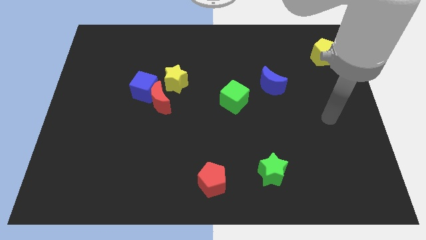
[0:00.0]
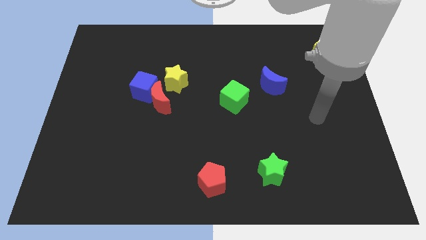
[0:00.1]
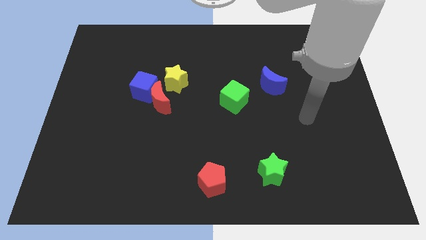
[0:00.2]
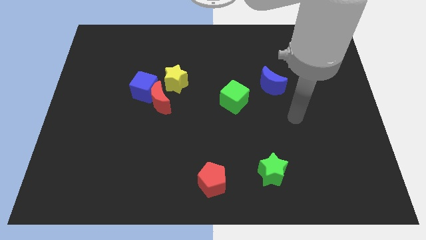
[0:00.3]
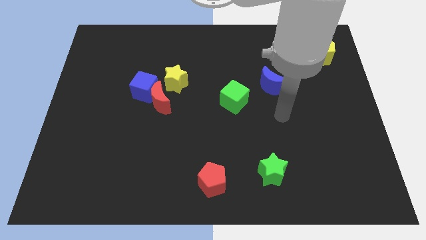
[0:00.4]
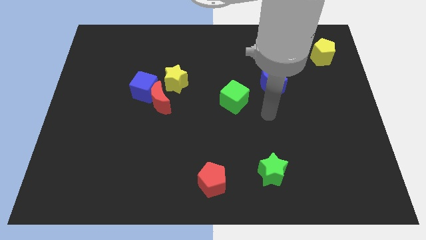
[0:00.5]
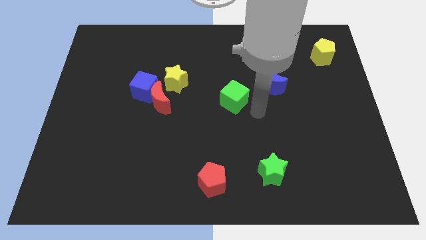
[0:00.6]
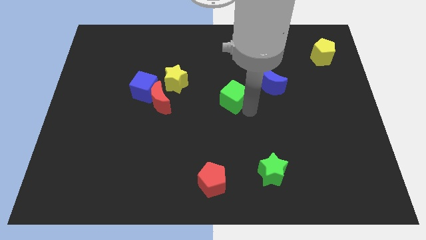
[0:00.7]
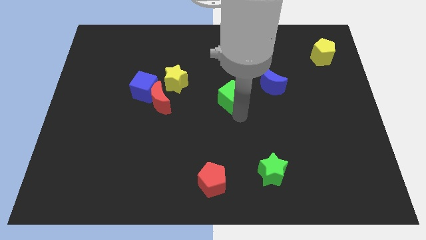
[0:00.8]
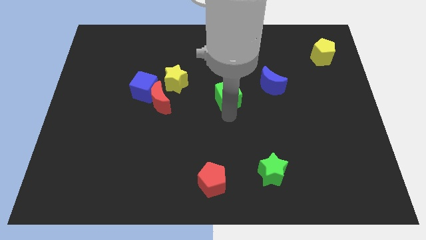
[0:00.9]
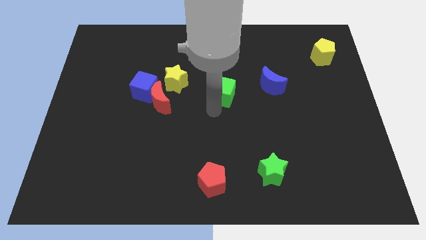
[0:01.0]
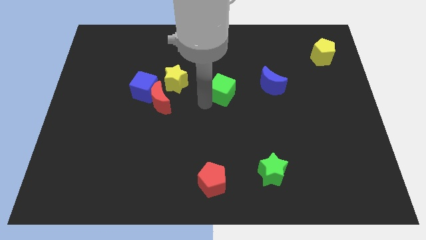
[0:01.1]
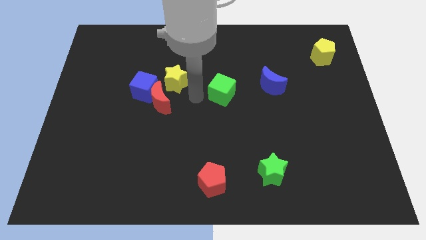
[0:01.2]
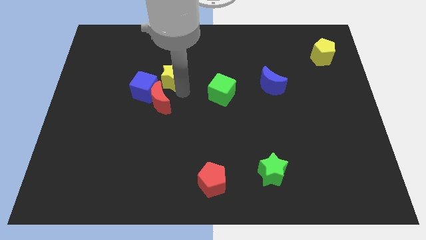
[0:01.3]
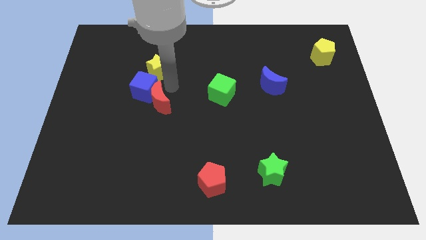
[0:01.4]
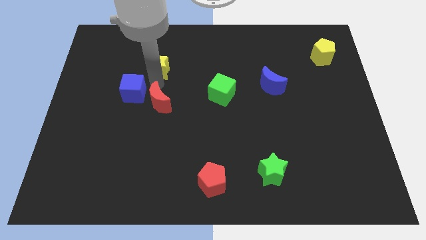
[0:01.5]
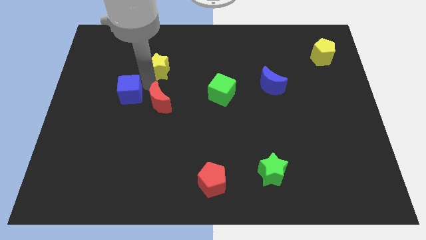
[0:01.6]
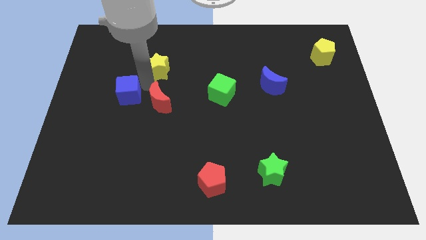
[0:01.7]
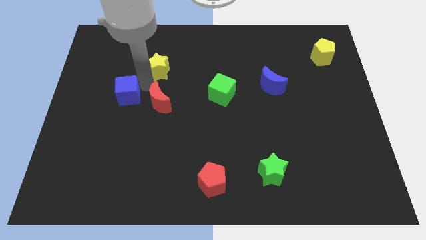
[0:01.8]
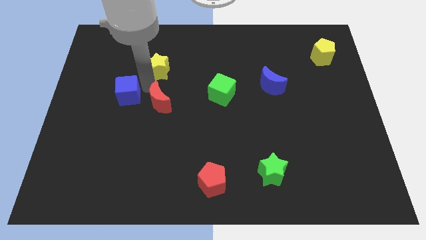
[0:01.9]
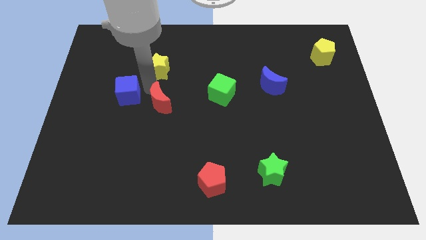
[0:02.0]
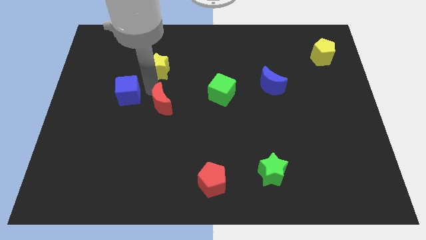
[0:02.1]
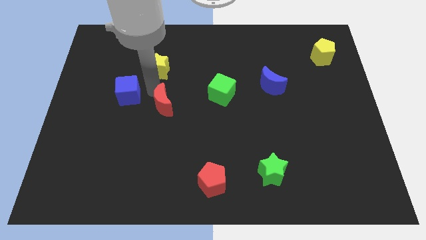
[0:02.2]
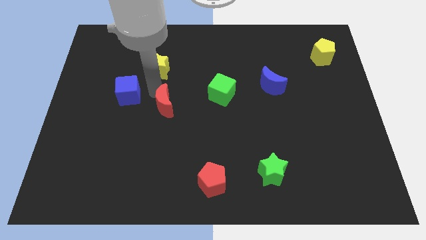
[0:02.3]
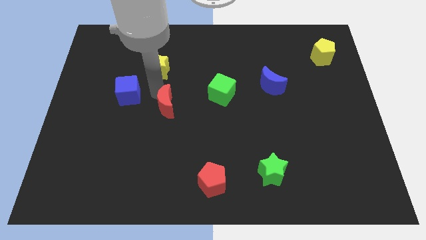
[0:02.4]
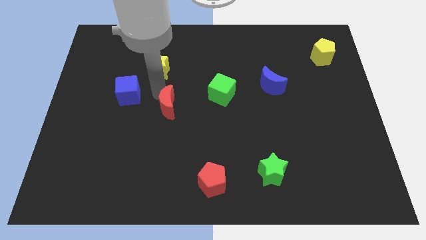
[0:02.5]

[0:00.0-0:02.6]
pull the red moon apart from the blue cube and yellow star

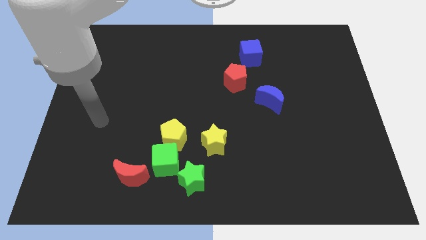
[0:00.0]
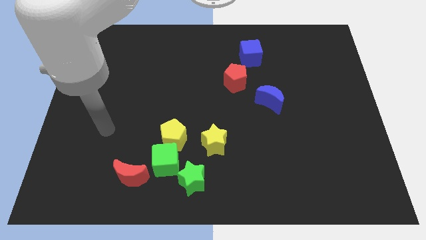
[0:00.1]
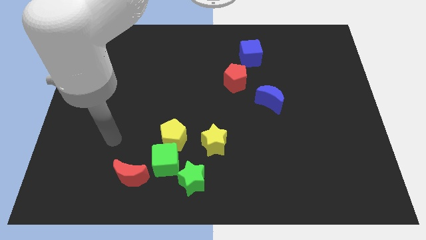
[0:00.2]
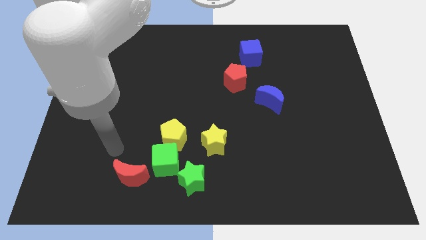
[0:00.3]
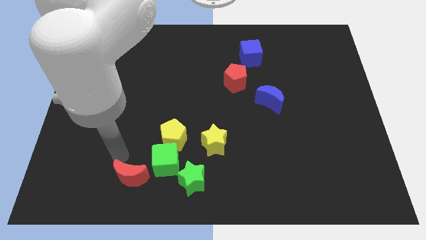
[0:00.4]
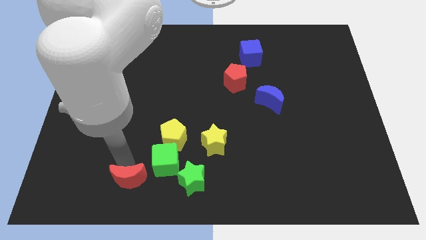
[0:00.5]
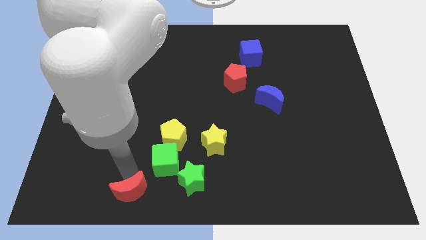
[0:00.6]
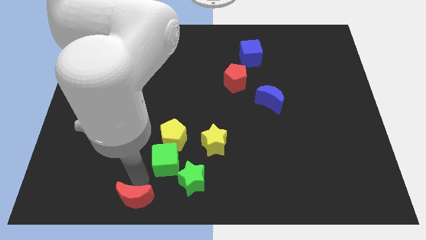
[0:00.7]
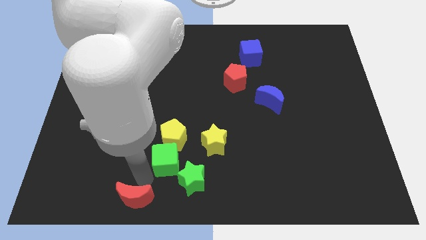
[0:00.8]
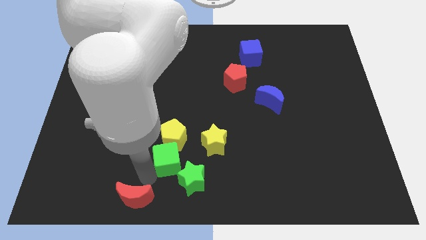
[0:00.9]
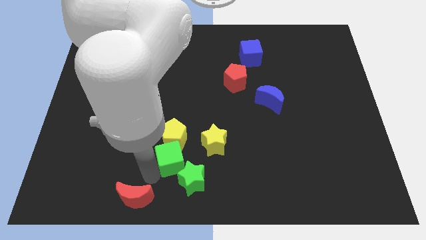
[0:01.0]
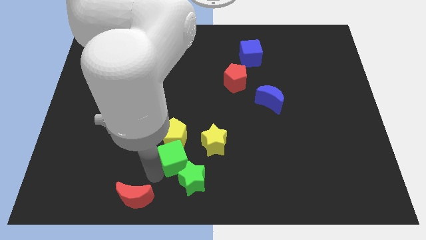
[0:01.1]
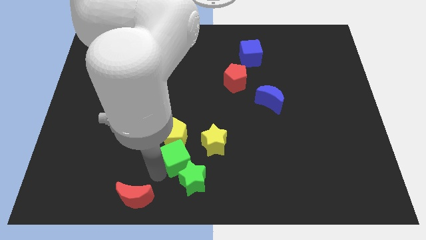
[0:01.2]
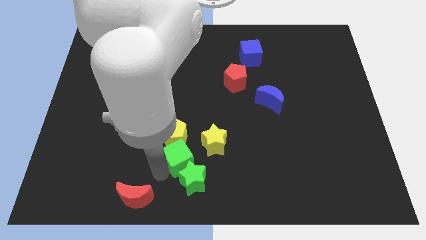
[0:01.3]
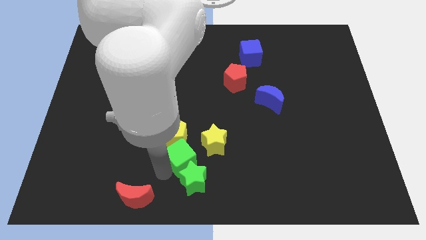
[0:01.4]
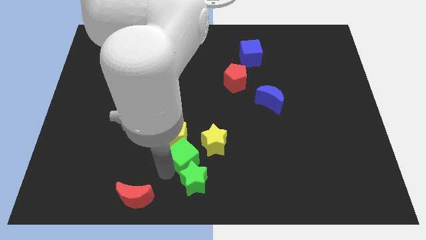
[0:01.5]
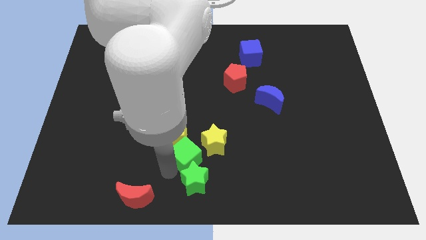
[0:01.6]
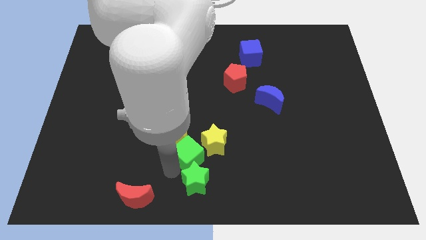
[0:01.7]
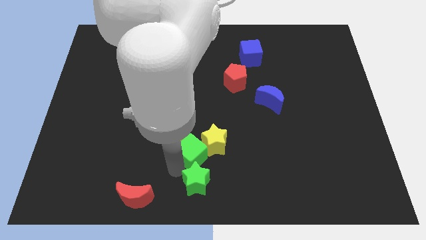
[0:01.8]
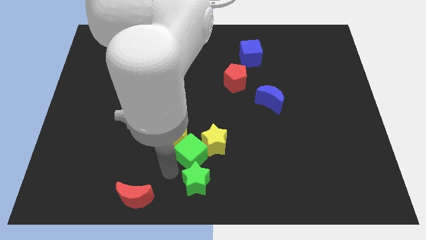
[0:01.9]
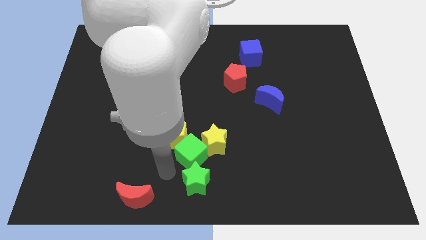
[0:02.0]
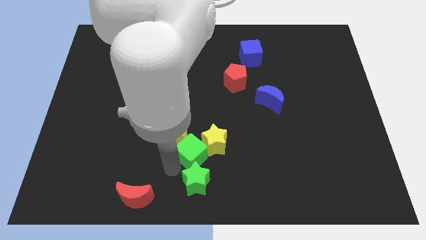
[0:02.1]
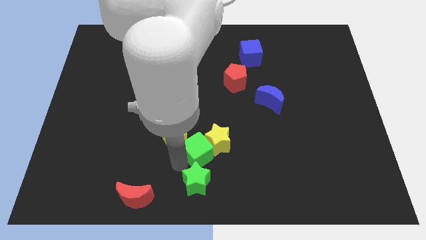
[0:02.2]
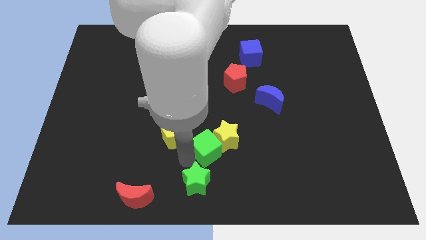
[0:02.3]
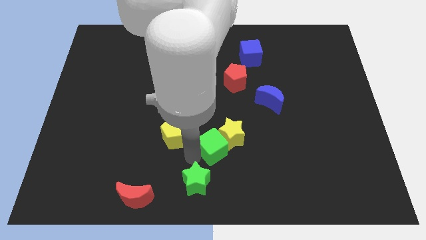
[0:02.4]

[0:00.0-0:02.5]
move the green cube away from the group of blocks

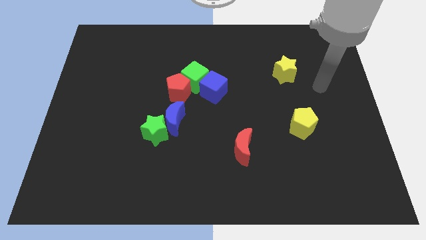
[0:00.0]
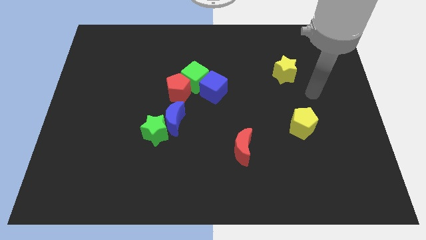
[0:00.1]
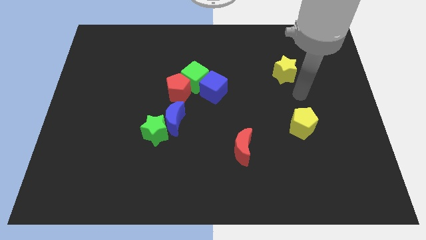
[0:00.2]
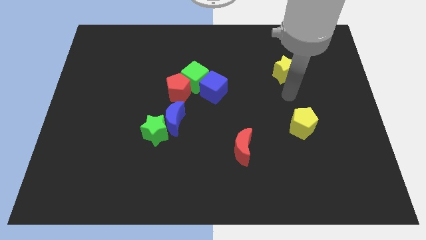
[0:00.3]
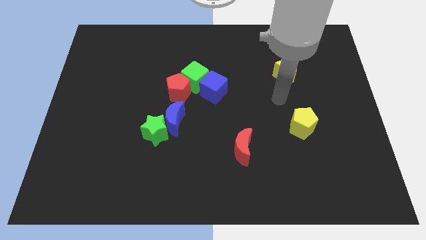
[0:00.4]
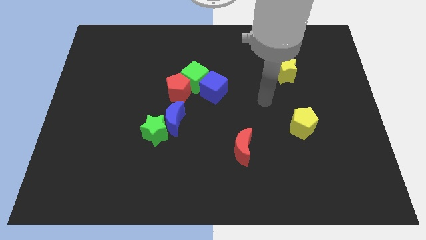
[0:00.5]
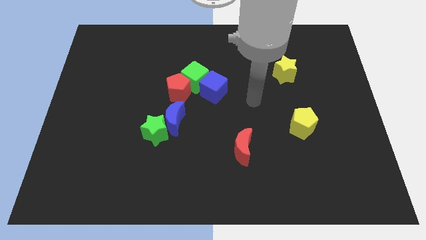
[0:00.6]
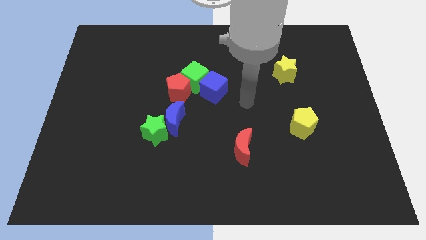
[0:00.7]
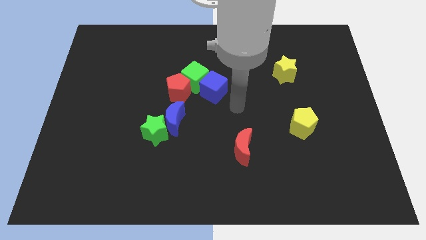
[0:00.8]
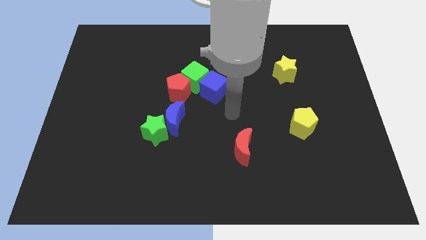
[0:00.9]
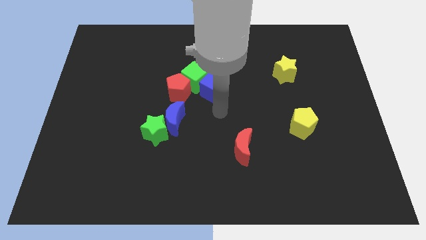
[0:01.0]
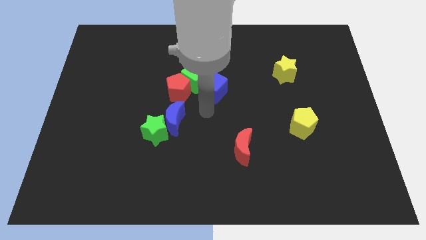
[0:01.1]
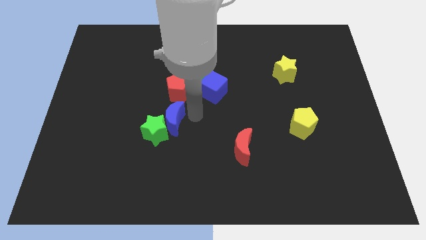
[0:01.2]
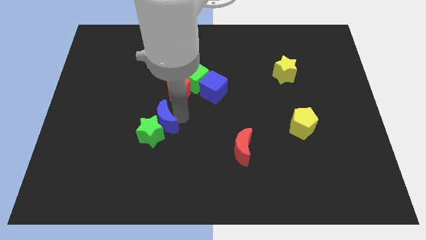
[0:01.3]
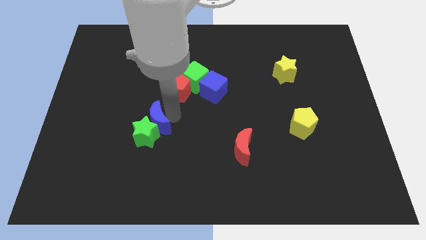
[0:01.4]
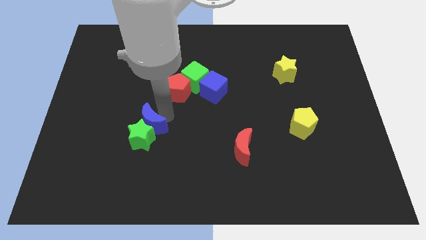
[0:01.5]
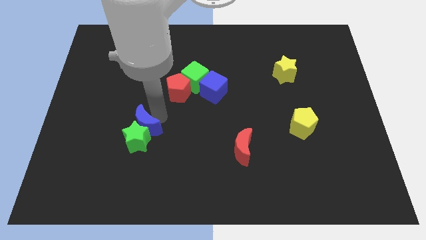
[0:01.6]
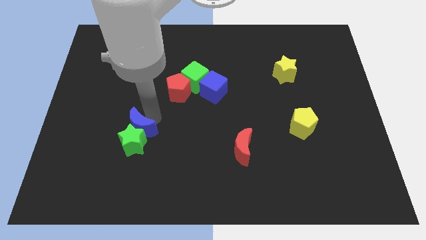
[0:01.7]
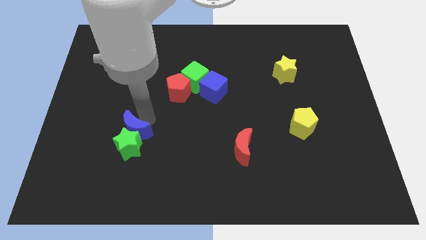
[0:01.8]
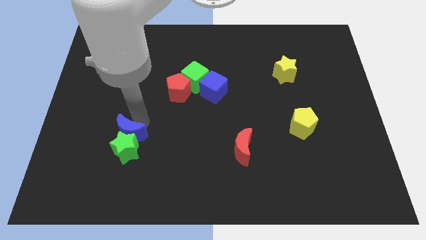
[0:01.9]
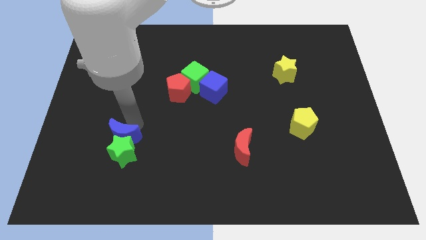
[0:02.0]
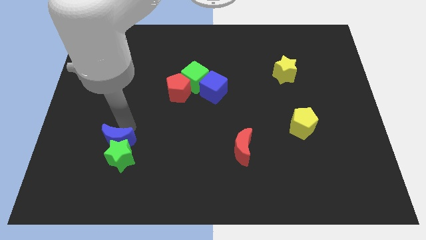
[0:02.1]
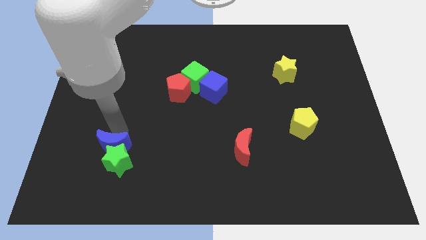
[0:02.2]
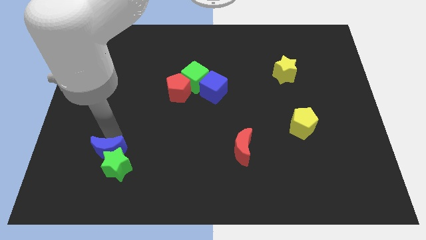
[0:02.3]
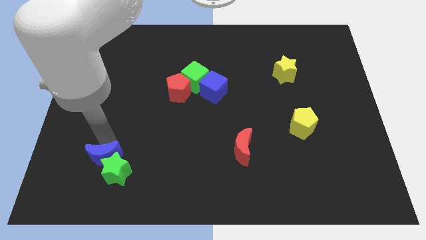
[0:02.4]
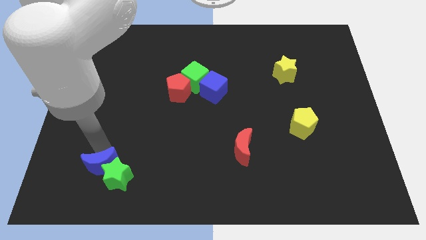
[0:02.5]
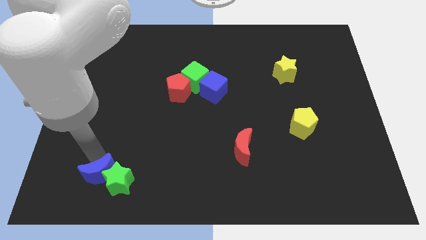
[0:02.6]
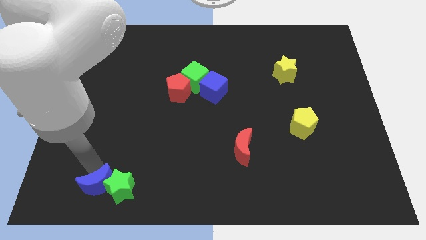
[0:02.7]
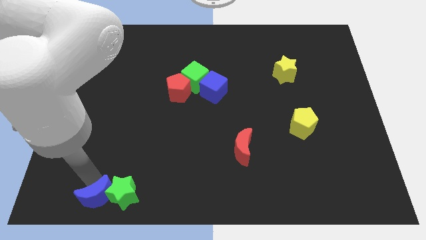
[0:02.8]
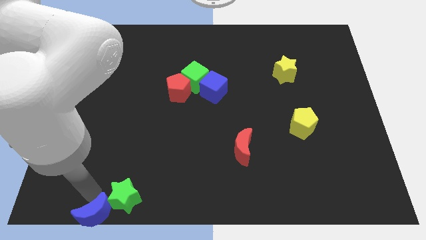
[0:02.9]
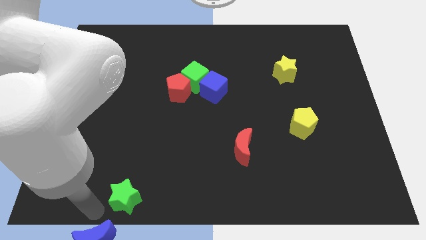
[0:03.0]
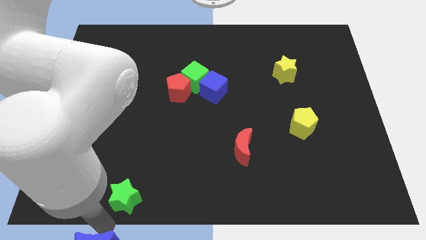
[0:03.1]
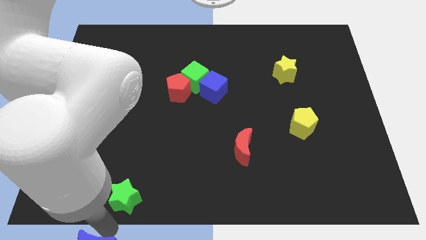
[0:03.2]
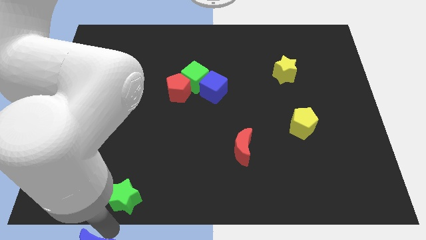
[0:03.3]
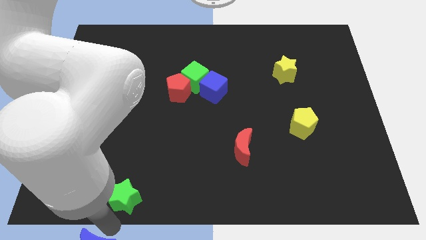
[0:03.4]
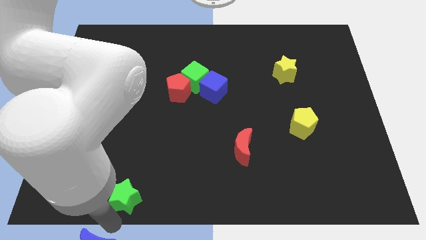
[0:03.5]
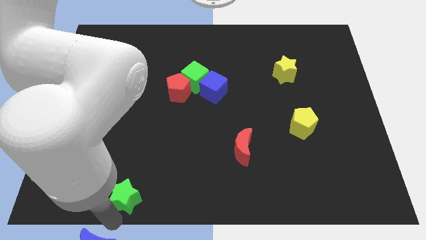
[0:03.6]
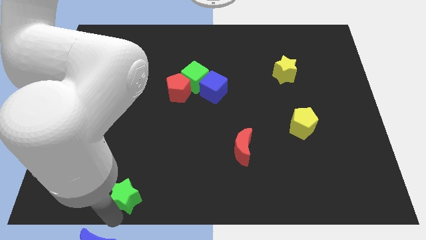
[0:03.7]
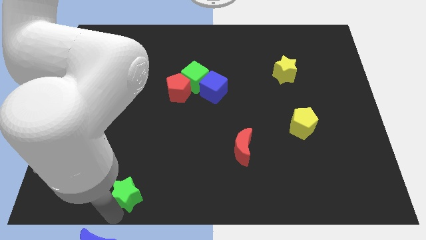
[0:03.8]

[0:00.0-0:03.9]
pull the green star apart from the blue moon

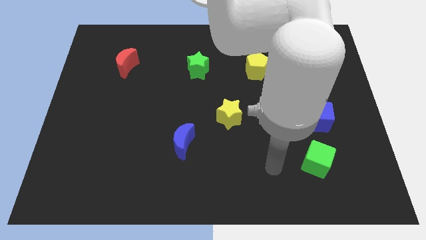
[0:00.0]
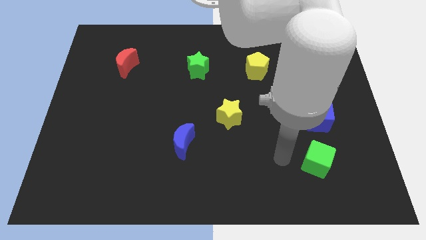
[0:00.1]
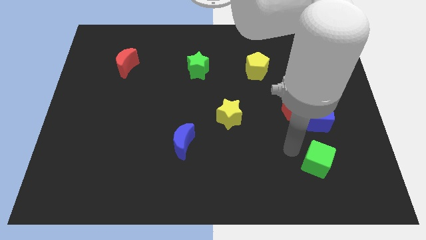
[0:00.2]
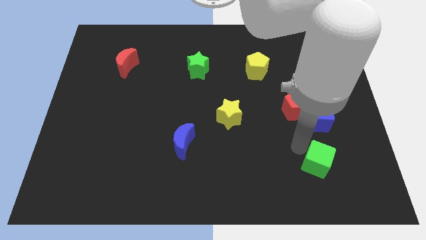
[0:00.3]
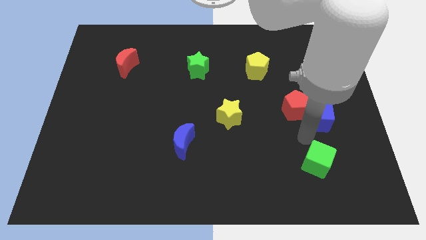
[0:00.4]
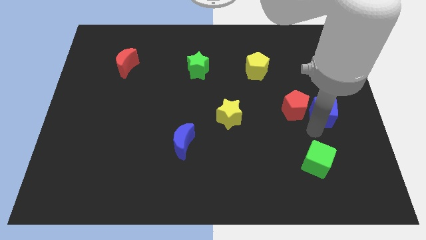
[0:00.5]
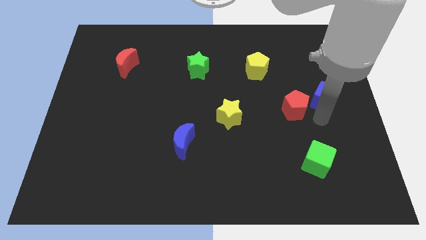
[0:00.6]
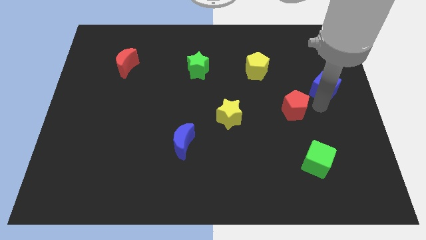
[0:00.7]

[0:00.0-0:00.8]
pull the red pentagon apart from the blue cube
